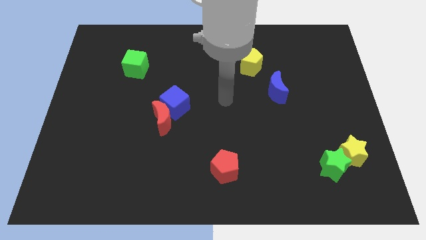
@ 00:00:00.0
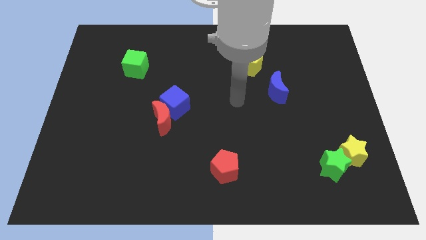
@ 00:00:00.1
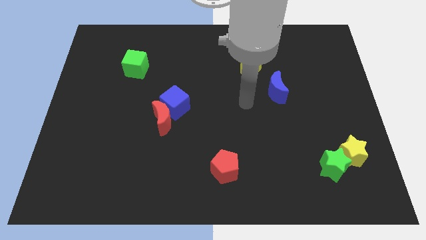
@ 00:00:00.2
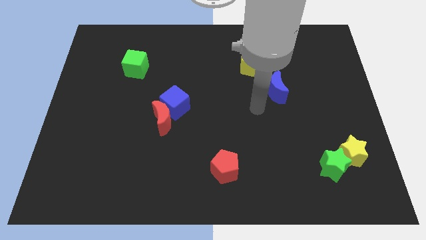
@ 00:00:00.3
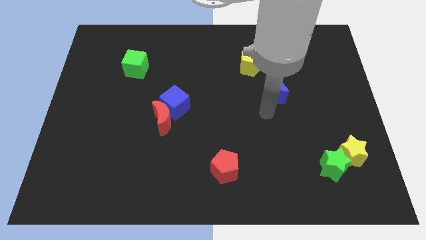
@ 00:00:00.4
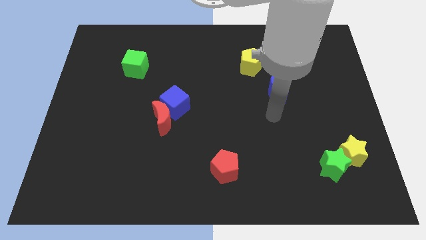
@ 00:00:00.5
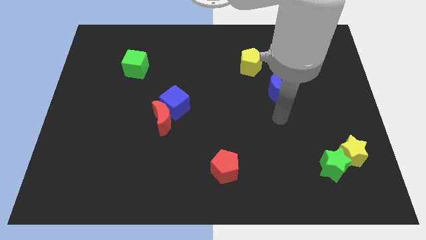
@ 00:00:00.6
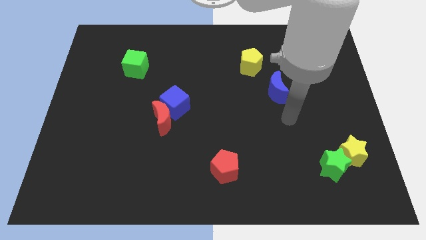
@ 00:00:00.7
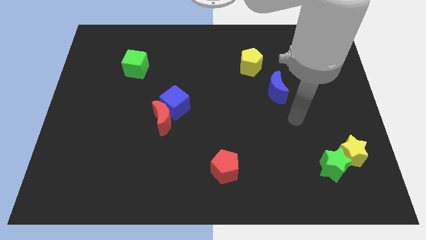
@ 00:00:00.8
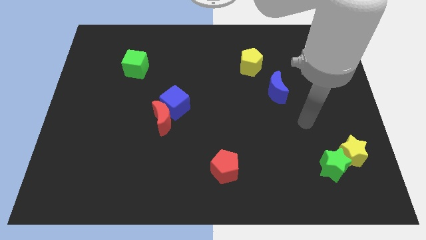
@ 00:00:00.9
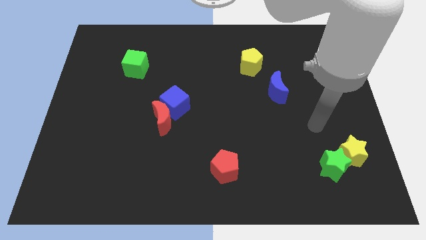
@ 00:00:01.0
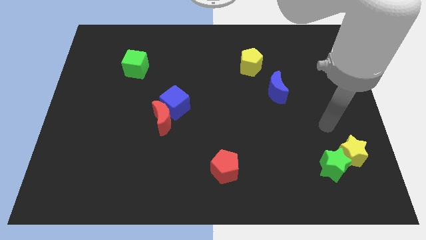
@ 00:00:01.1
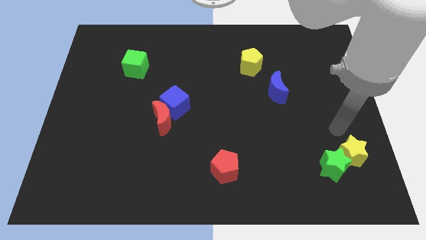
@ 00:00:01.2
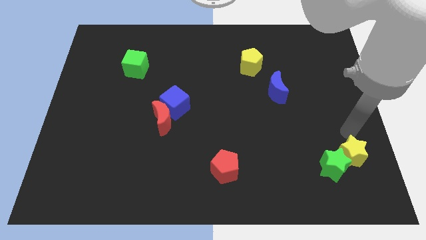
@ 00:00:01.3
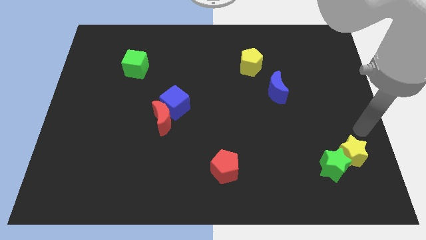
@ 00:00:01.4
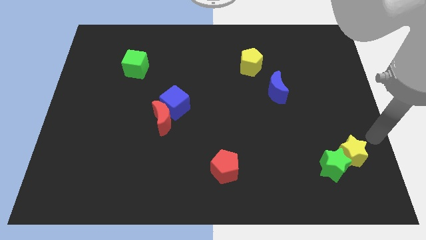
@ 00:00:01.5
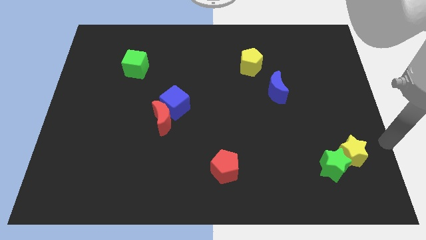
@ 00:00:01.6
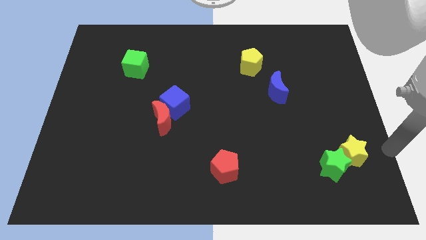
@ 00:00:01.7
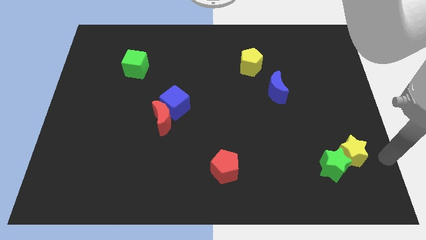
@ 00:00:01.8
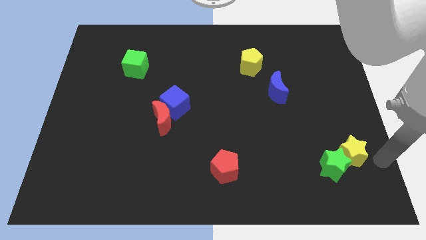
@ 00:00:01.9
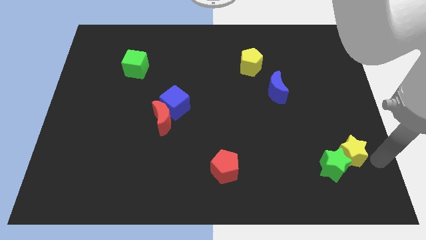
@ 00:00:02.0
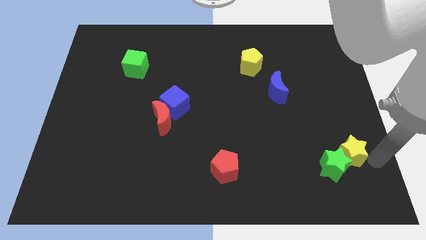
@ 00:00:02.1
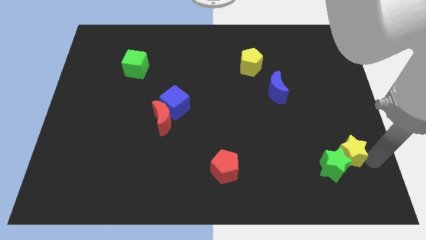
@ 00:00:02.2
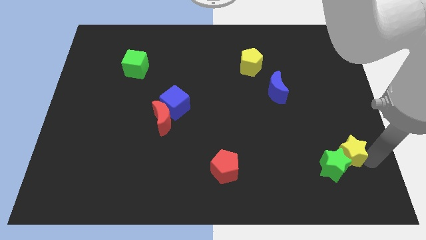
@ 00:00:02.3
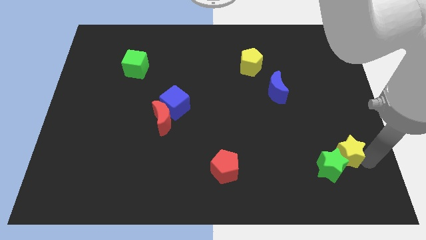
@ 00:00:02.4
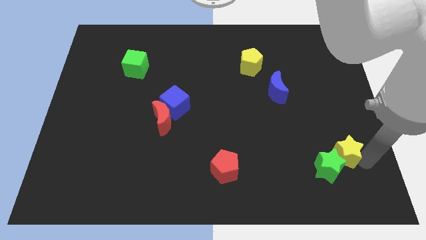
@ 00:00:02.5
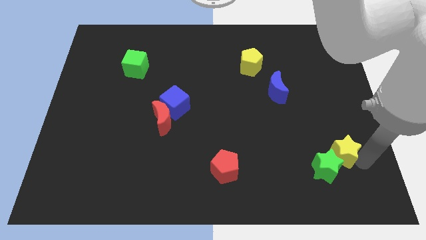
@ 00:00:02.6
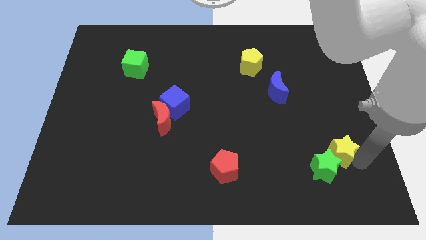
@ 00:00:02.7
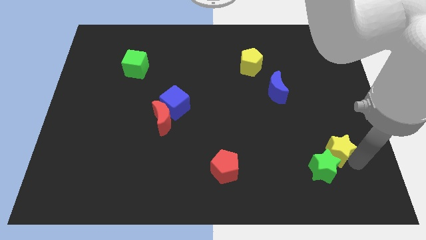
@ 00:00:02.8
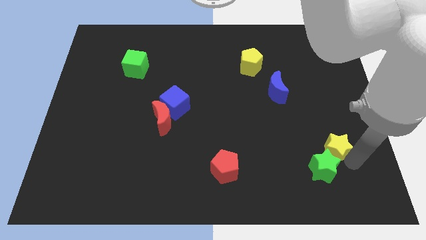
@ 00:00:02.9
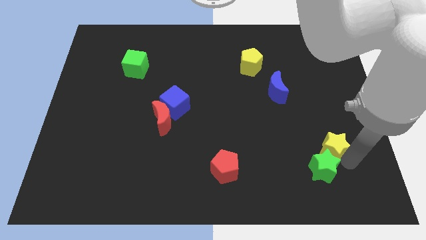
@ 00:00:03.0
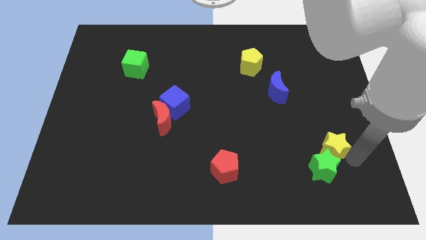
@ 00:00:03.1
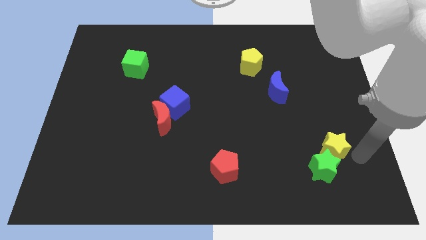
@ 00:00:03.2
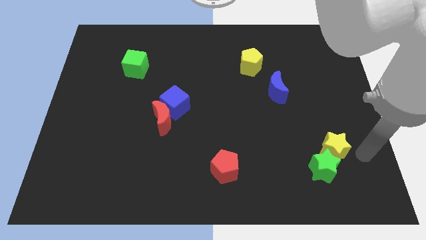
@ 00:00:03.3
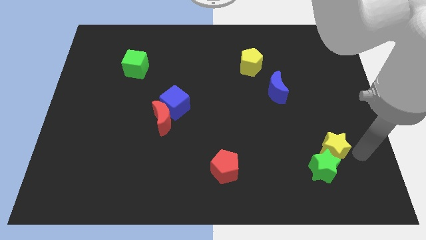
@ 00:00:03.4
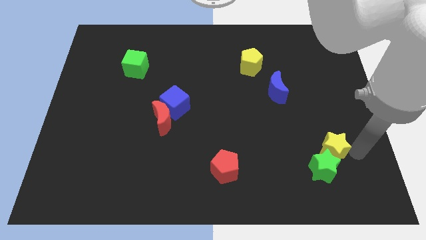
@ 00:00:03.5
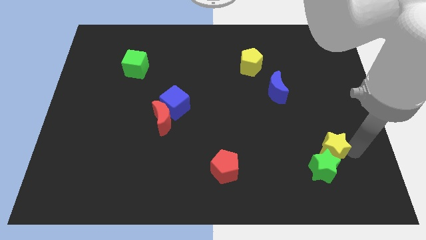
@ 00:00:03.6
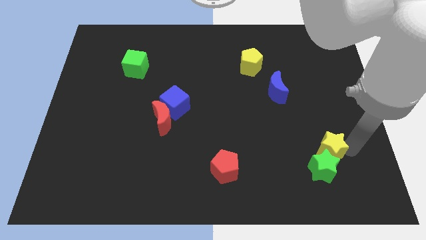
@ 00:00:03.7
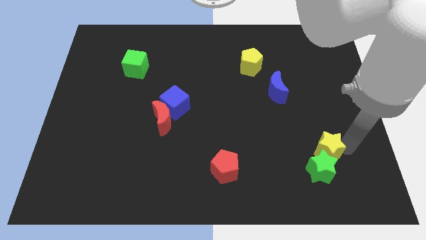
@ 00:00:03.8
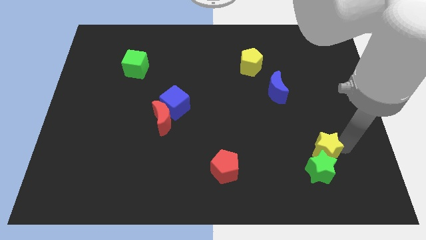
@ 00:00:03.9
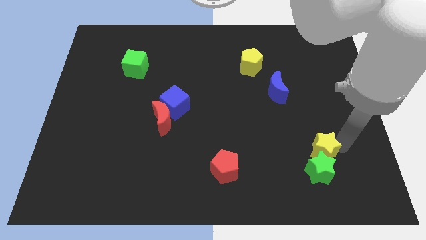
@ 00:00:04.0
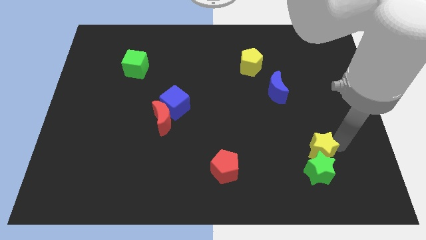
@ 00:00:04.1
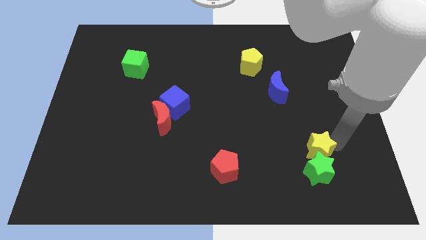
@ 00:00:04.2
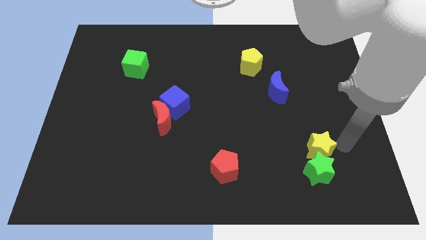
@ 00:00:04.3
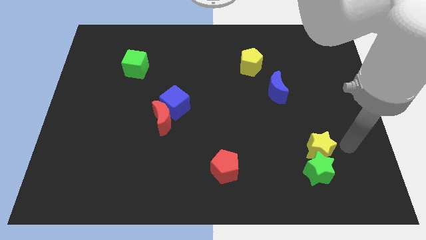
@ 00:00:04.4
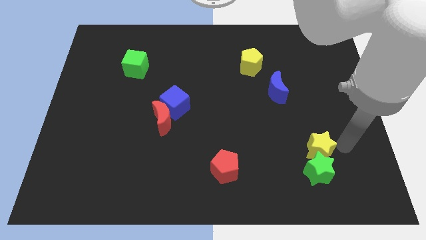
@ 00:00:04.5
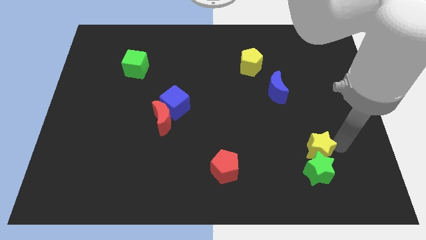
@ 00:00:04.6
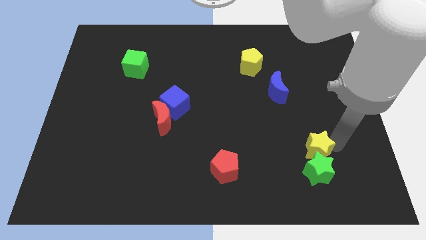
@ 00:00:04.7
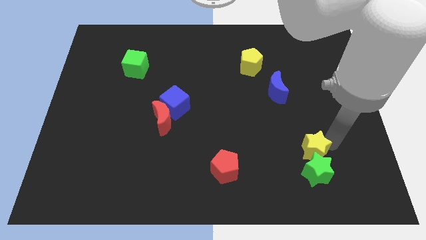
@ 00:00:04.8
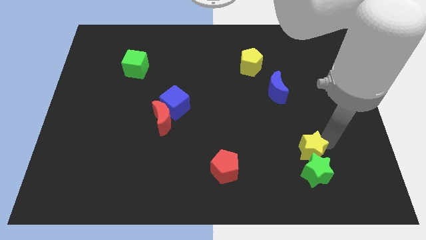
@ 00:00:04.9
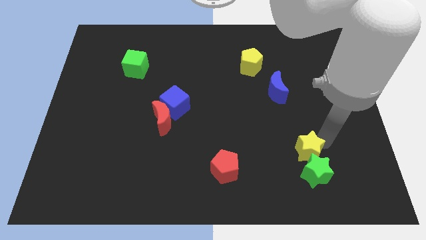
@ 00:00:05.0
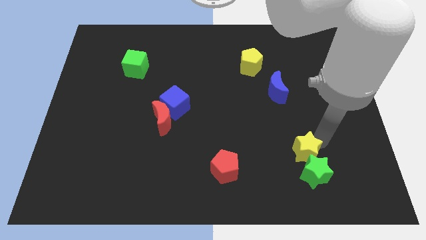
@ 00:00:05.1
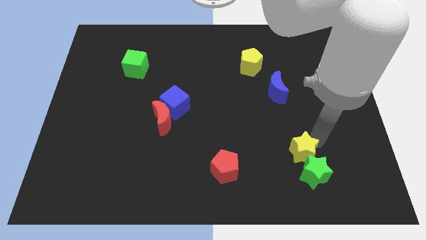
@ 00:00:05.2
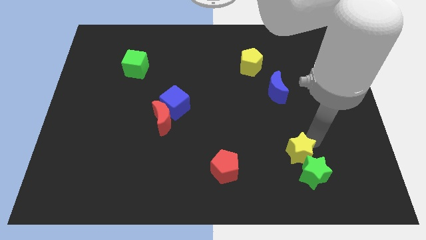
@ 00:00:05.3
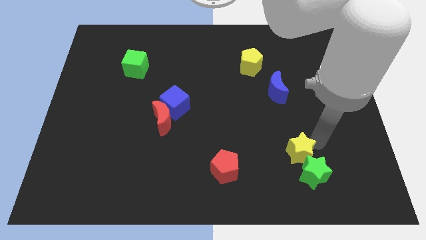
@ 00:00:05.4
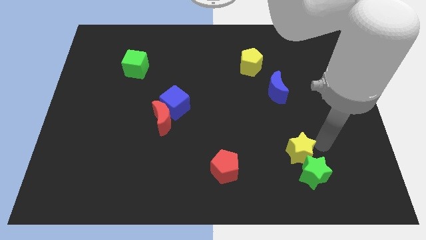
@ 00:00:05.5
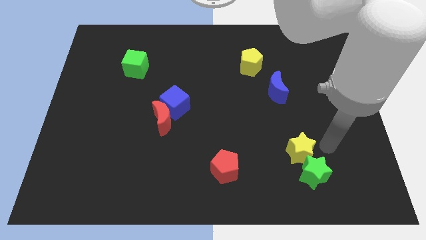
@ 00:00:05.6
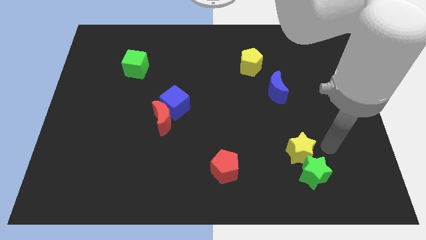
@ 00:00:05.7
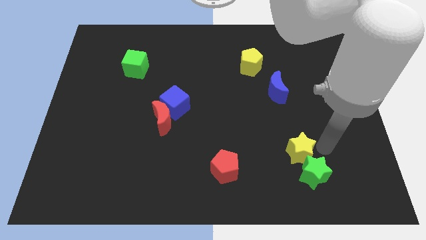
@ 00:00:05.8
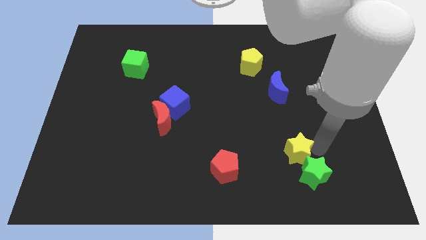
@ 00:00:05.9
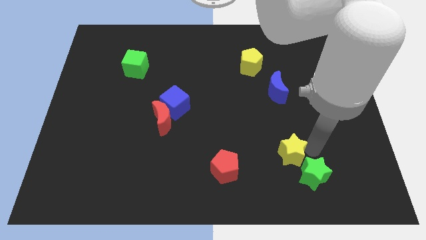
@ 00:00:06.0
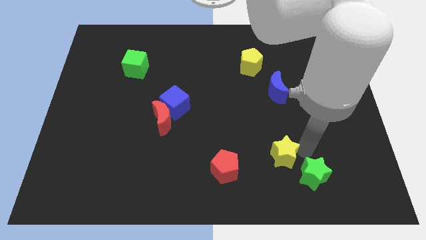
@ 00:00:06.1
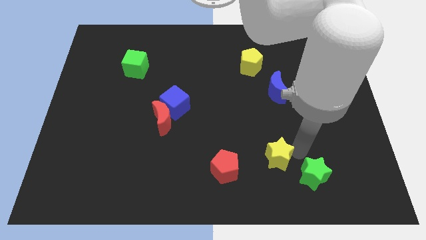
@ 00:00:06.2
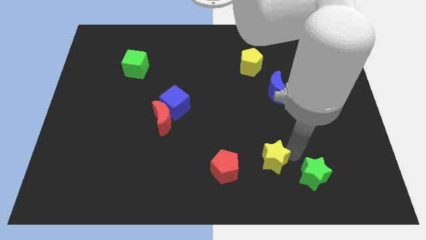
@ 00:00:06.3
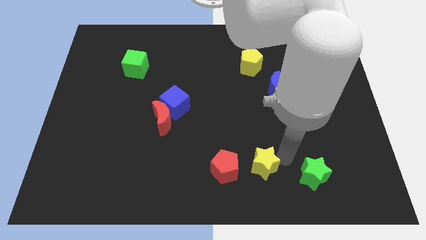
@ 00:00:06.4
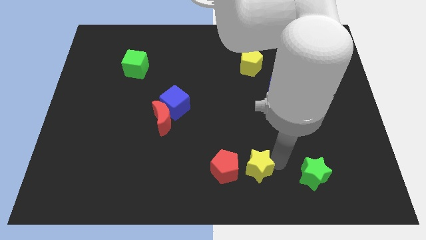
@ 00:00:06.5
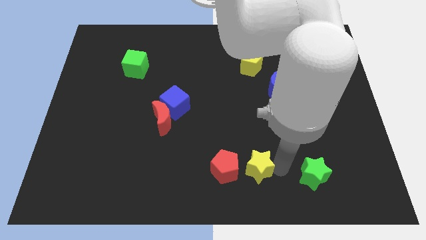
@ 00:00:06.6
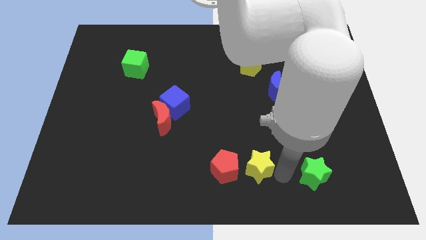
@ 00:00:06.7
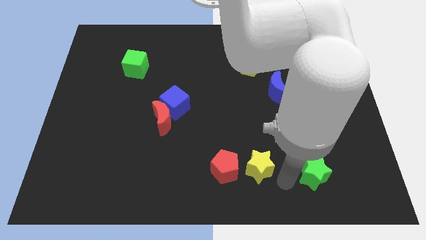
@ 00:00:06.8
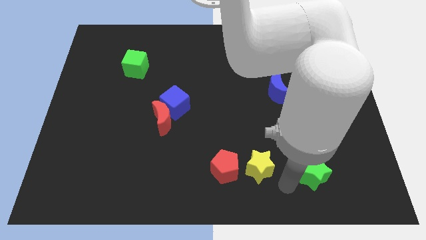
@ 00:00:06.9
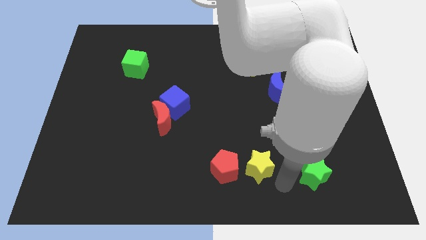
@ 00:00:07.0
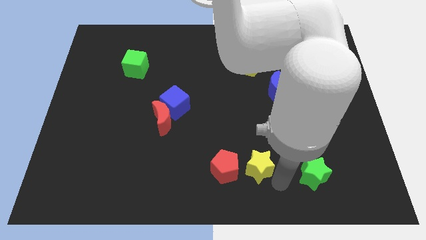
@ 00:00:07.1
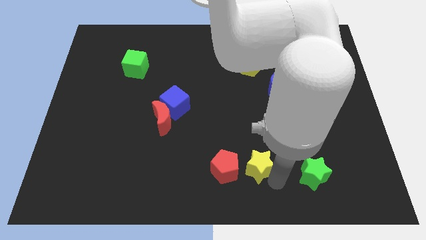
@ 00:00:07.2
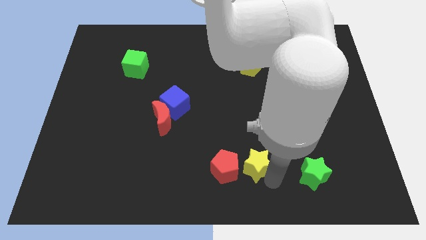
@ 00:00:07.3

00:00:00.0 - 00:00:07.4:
push the yellow star left

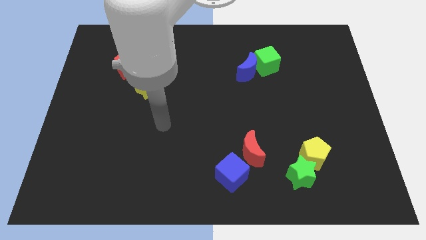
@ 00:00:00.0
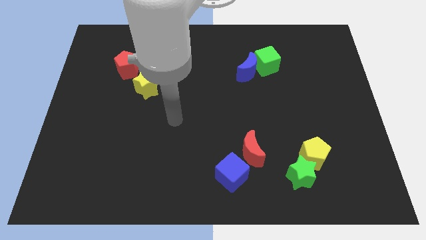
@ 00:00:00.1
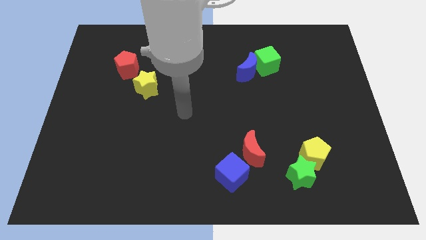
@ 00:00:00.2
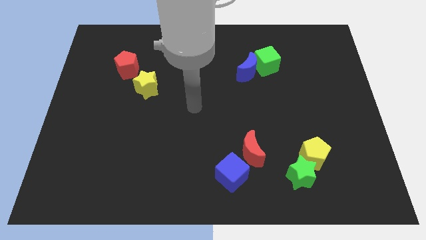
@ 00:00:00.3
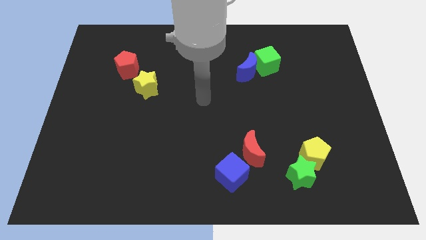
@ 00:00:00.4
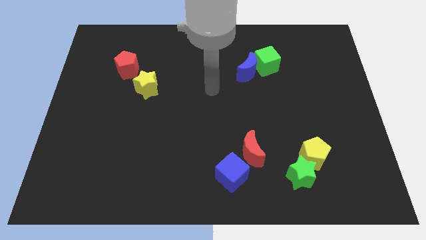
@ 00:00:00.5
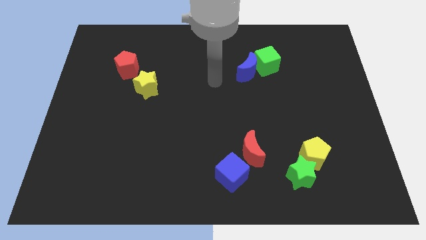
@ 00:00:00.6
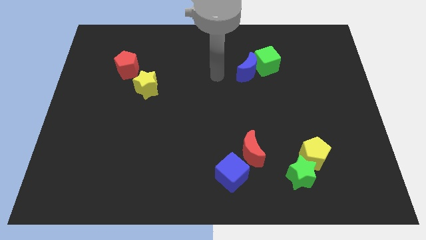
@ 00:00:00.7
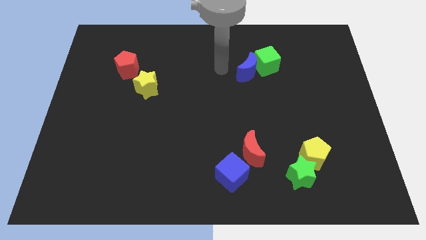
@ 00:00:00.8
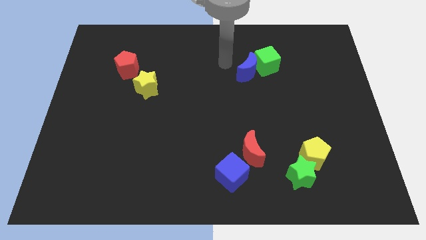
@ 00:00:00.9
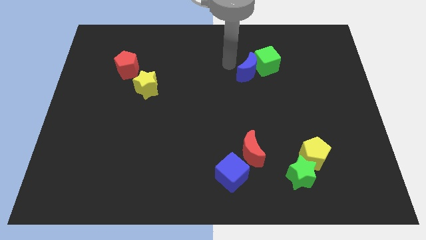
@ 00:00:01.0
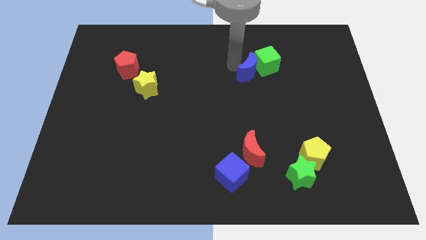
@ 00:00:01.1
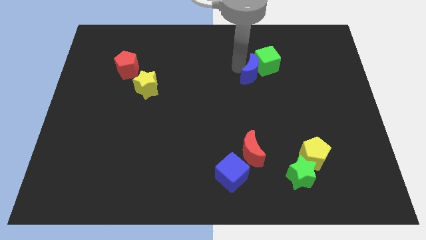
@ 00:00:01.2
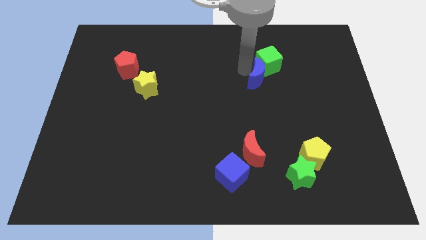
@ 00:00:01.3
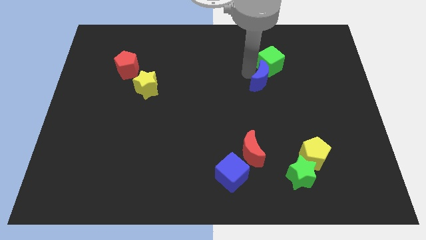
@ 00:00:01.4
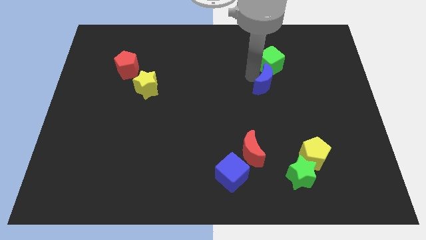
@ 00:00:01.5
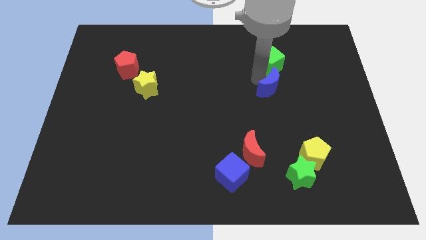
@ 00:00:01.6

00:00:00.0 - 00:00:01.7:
slide the blue moon down and right diagonally somewhat
